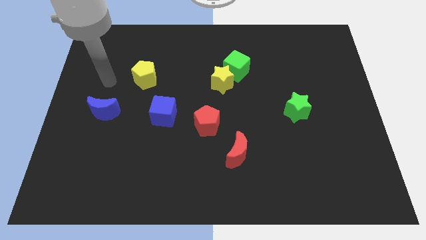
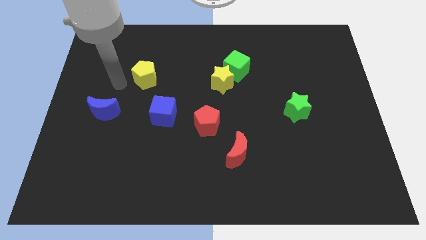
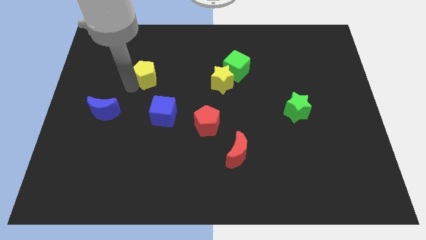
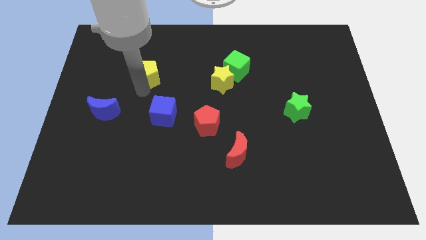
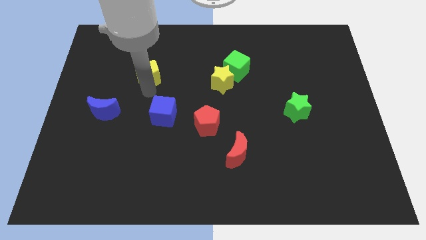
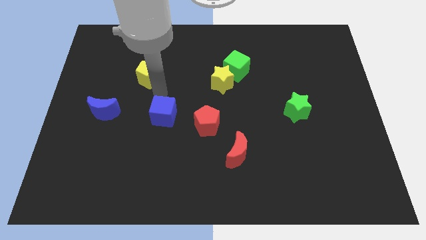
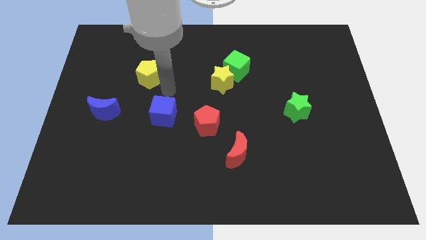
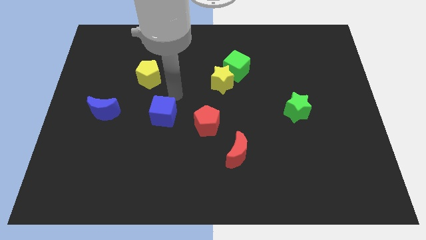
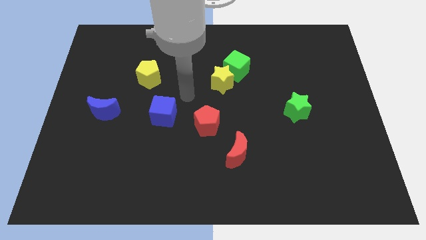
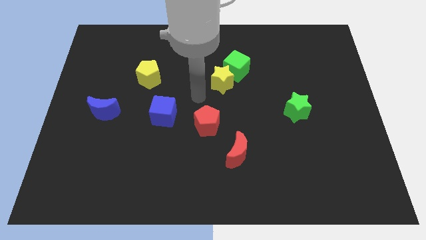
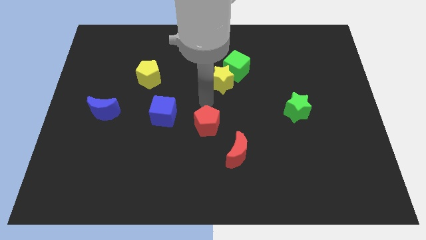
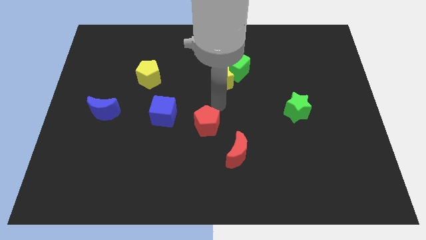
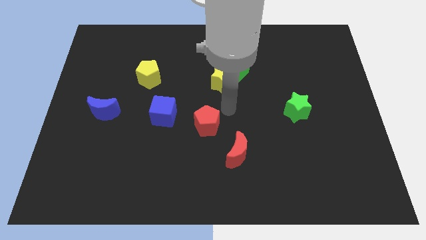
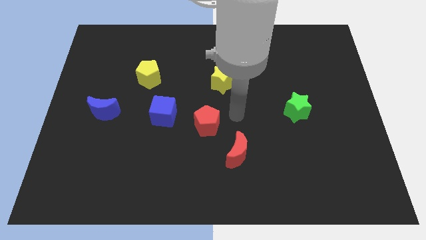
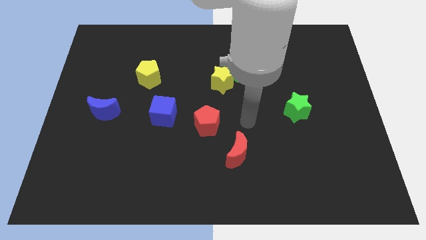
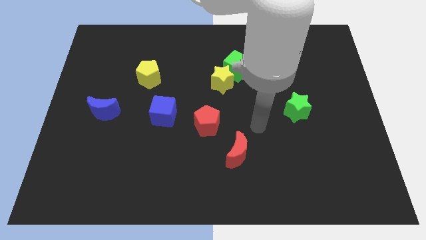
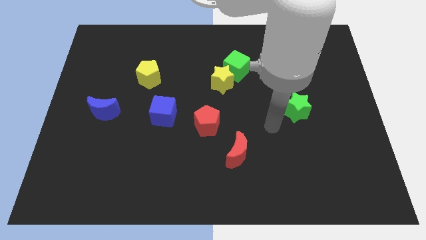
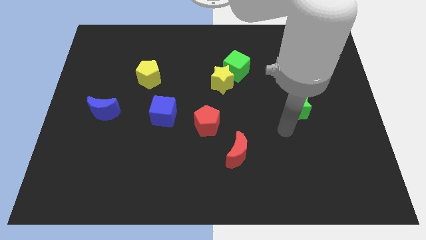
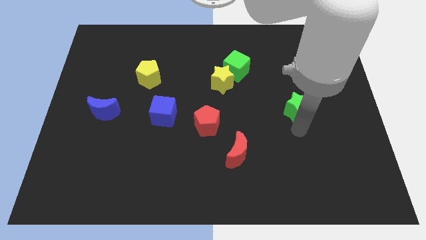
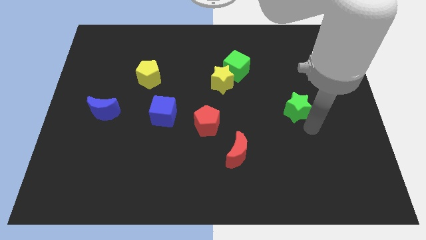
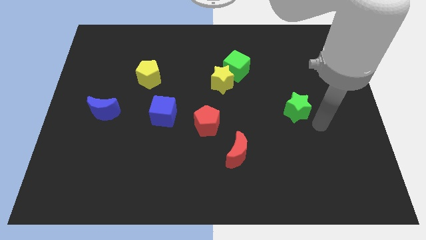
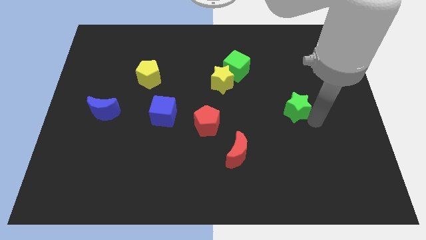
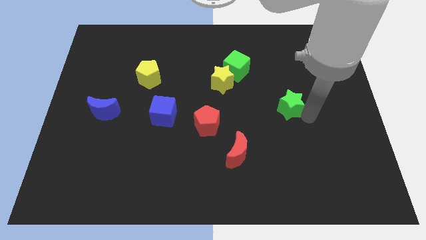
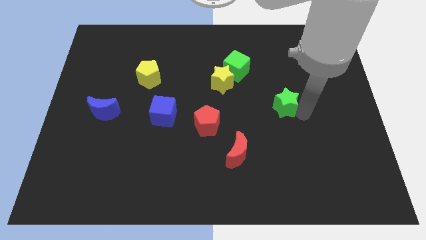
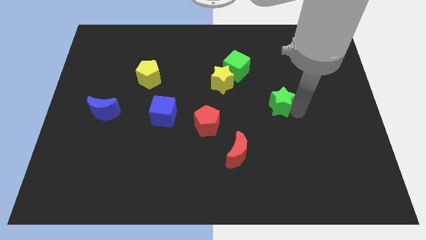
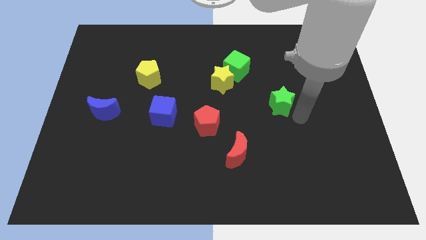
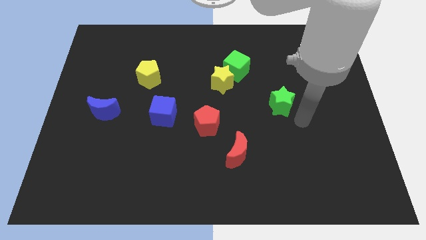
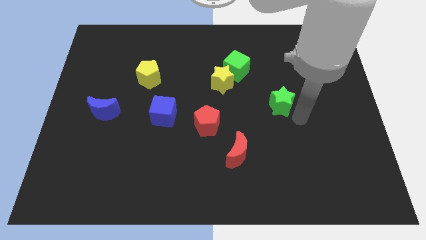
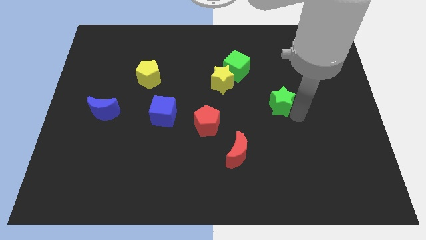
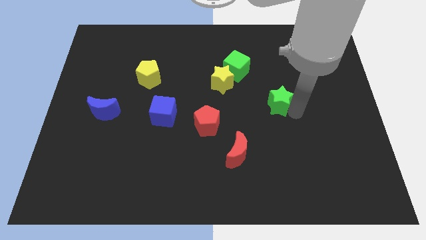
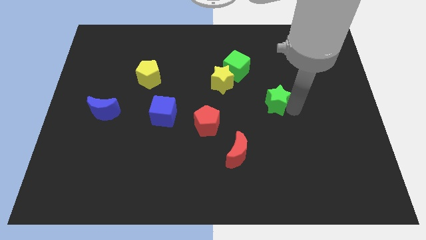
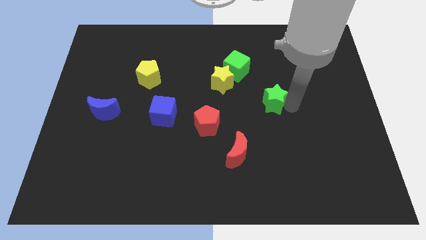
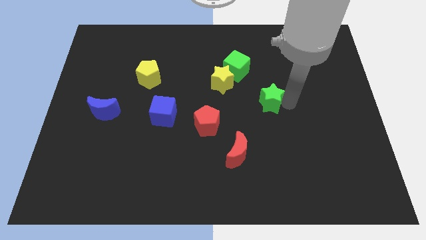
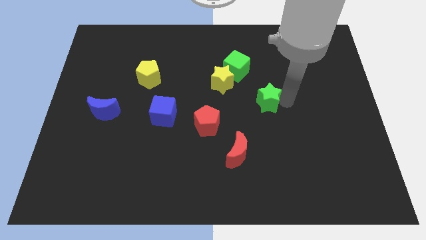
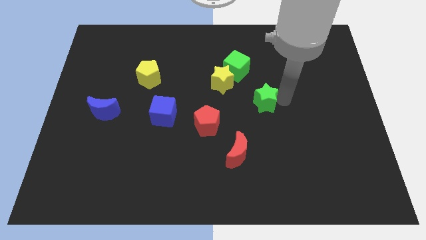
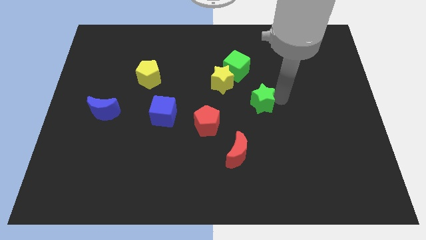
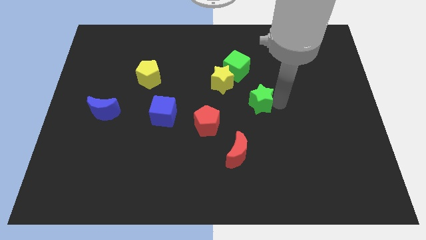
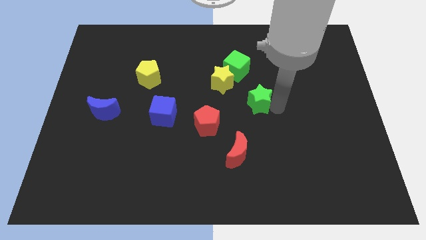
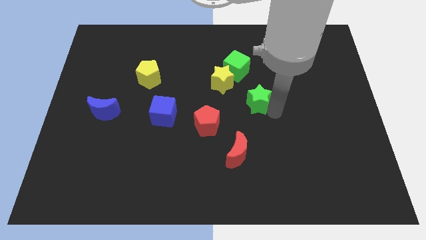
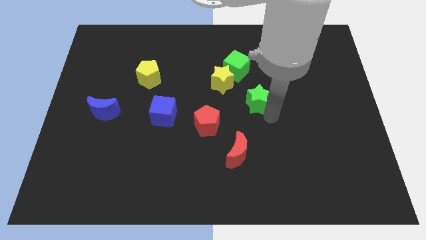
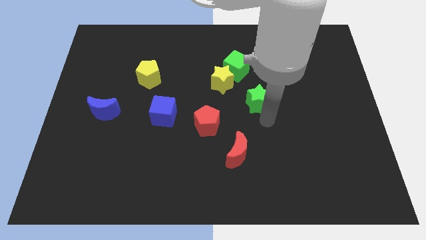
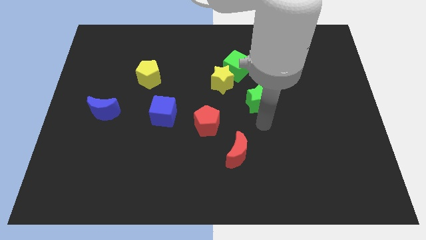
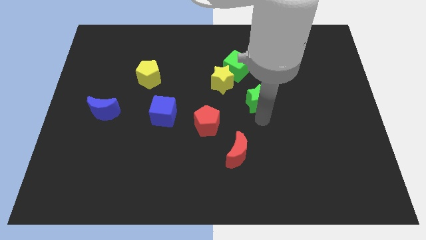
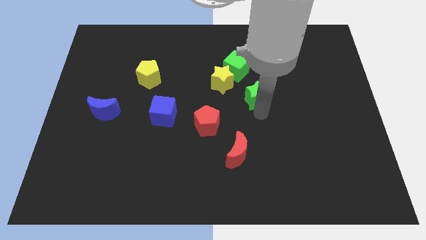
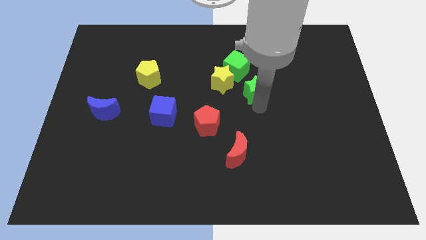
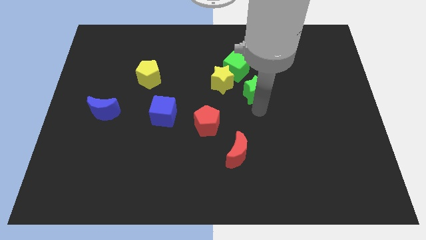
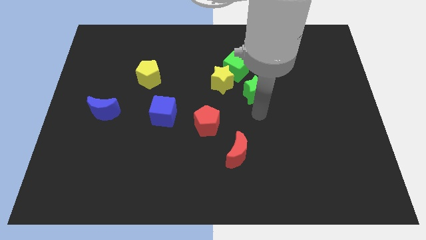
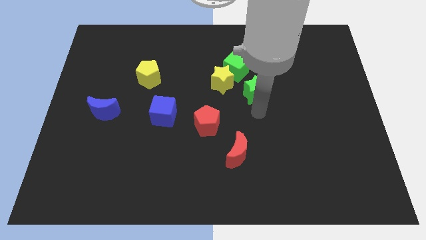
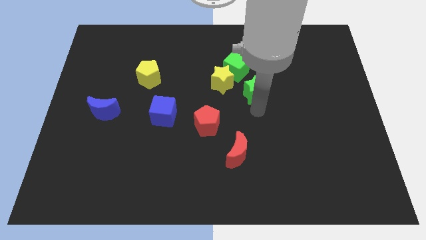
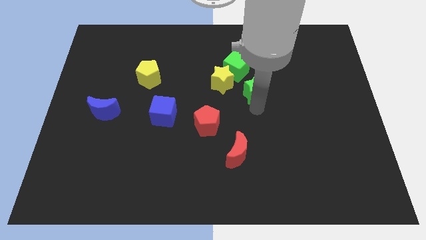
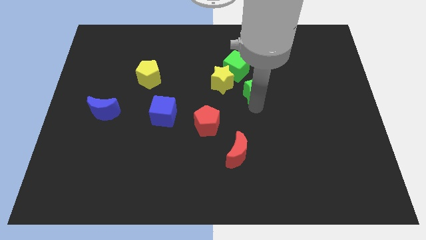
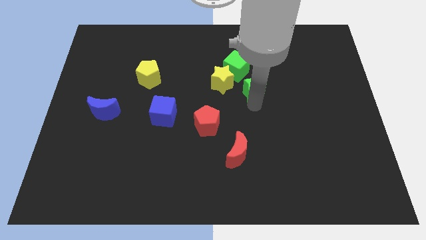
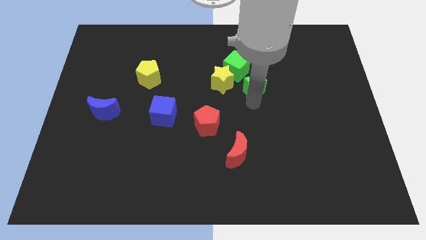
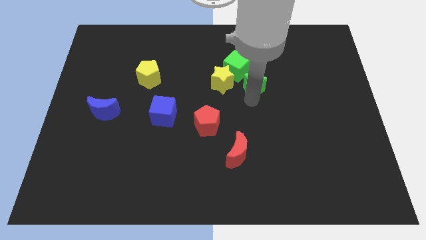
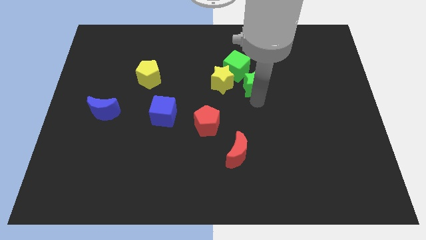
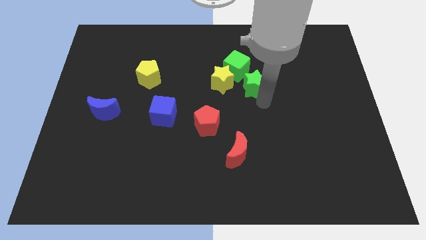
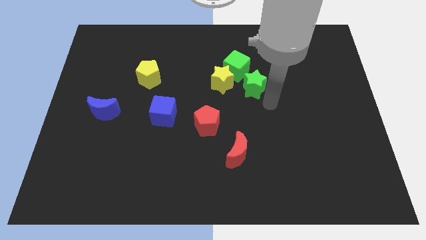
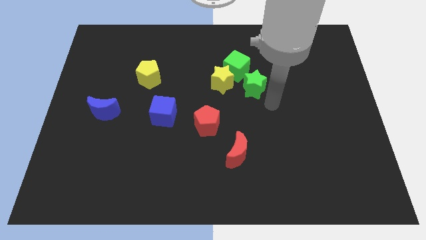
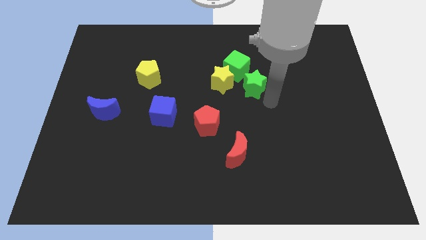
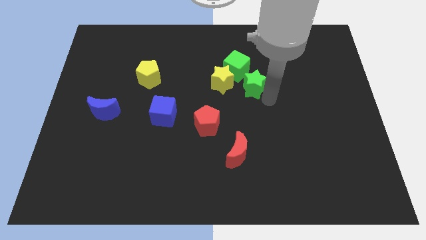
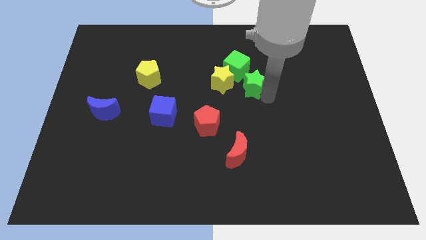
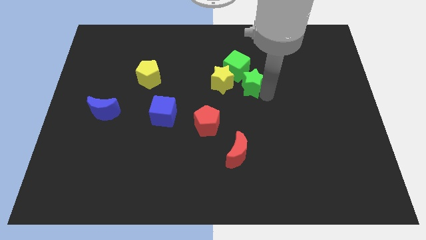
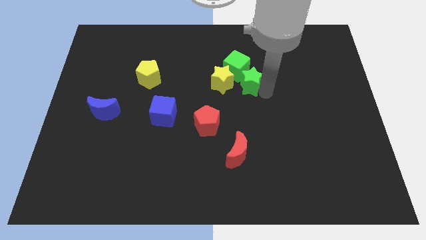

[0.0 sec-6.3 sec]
push the green star next to the green cube

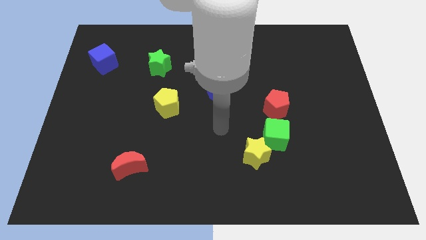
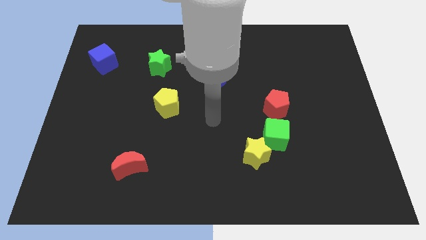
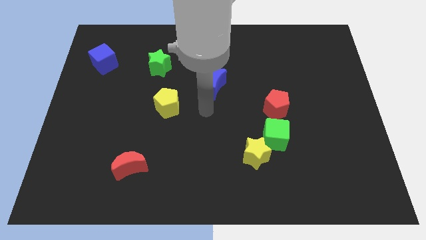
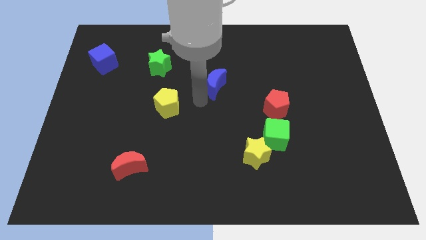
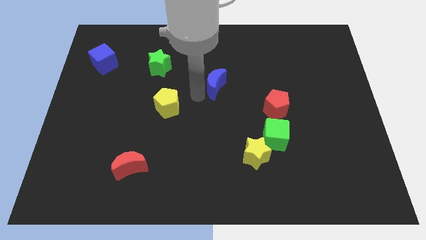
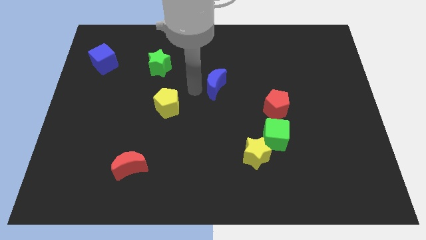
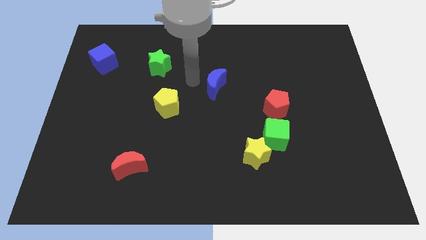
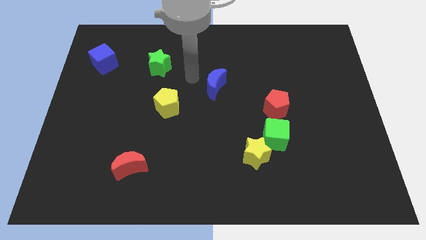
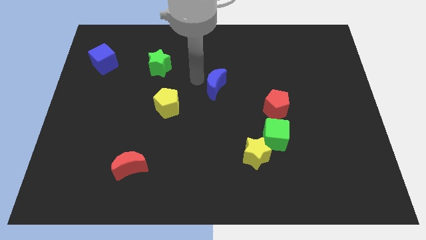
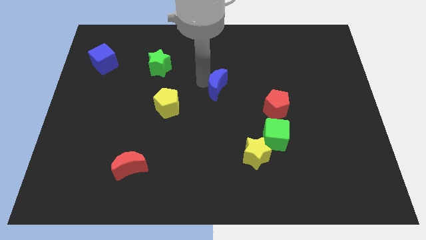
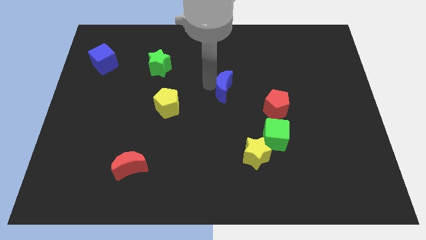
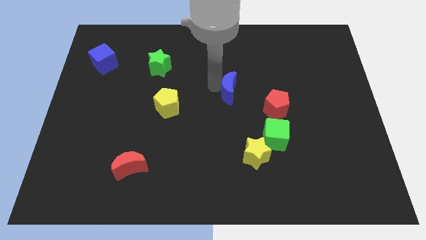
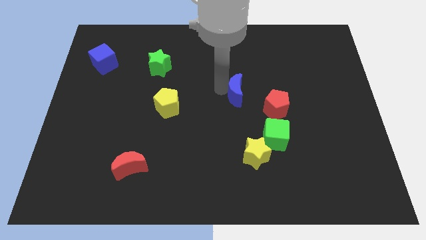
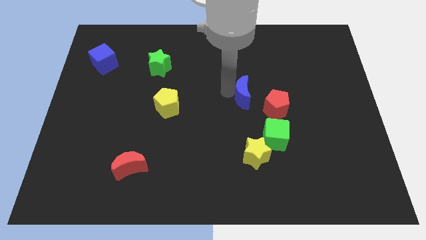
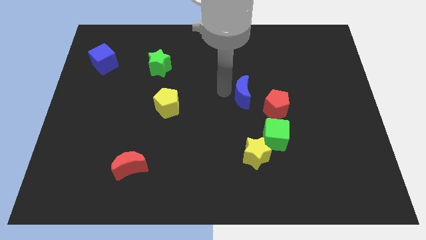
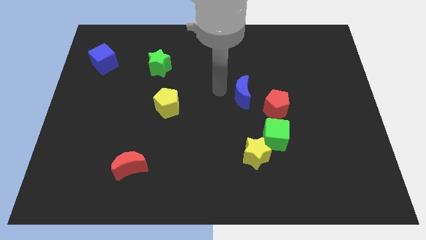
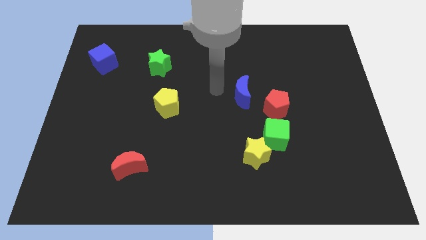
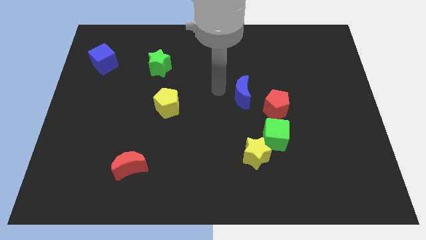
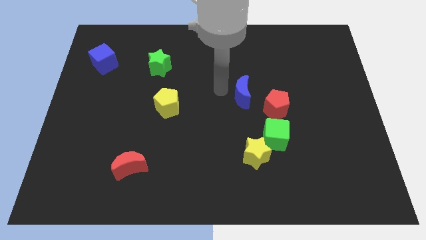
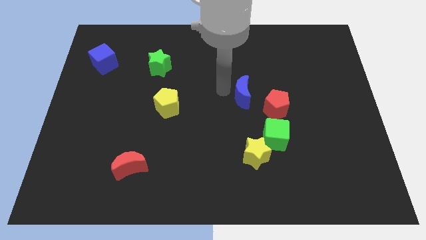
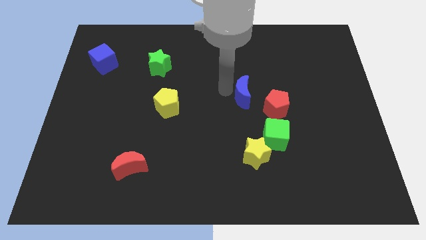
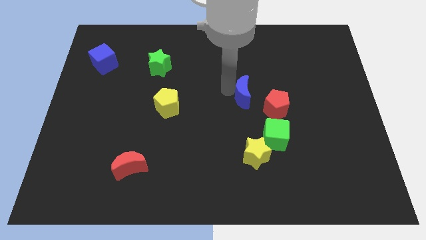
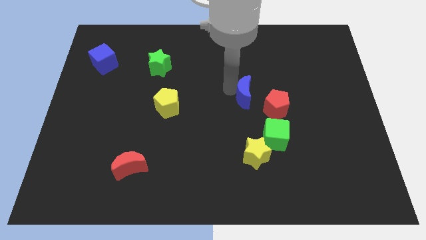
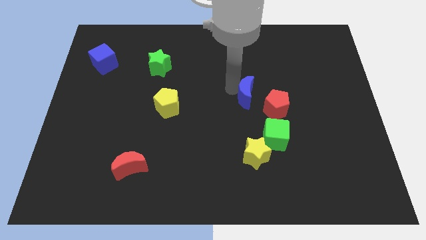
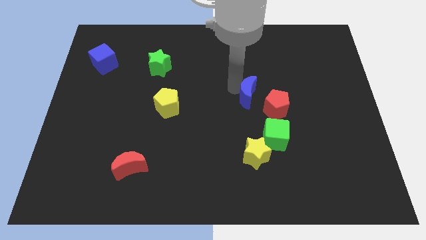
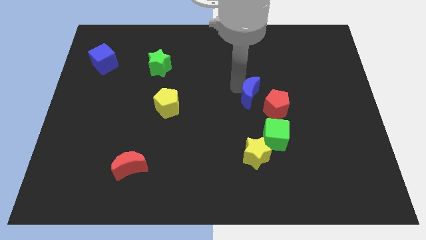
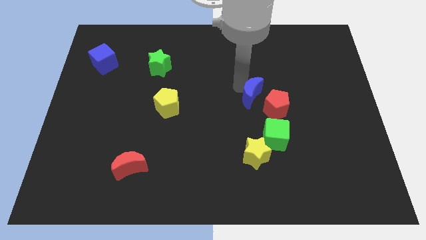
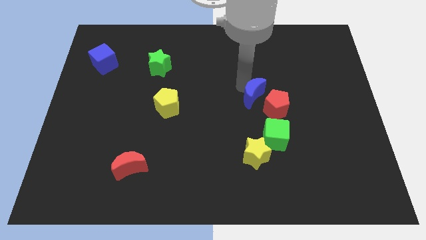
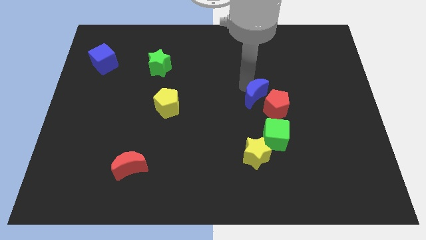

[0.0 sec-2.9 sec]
slide the blue moon close to the red pentagon
